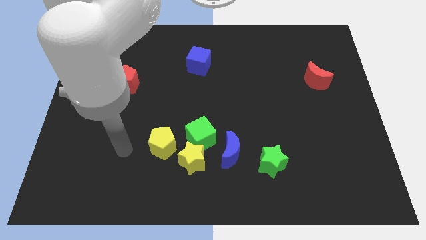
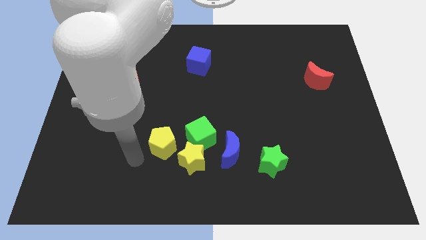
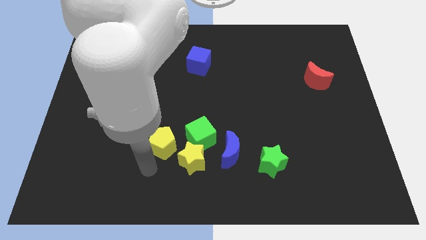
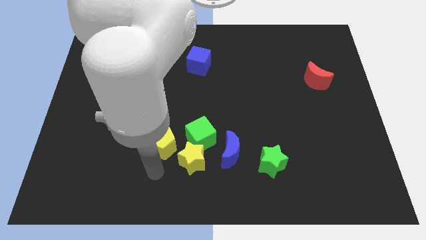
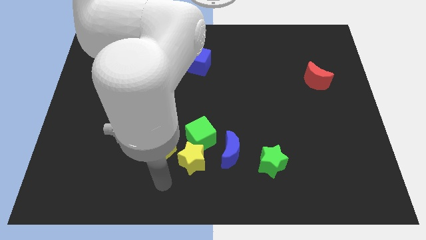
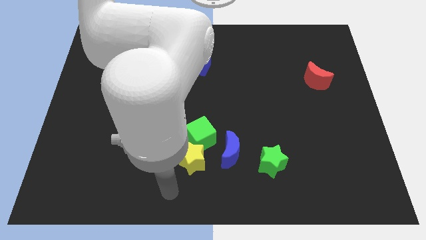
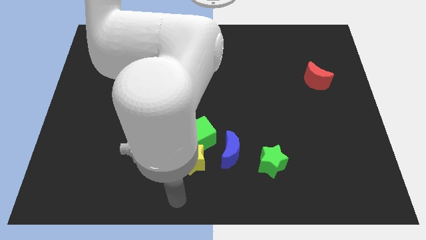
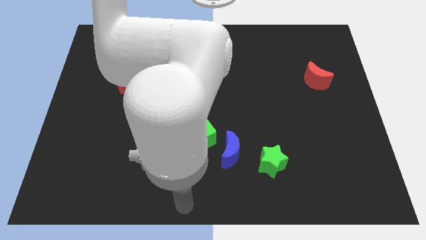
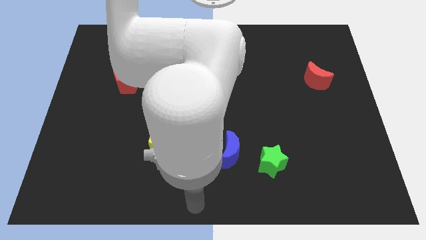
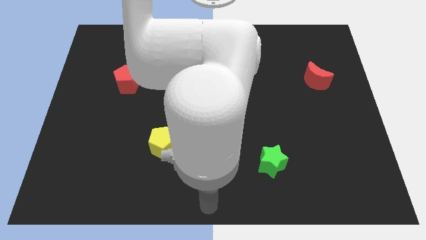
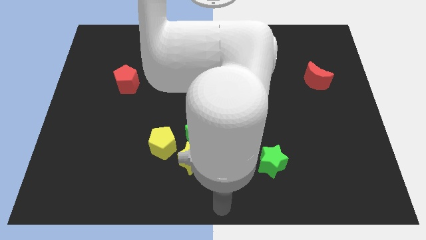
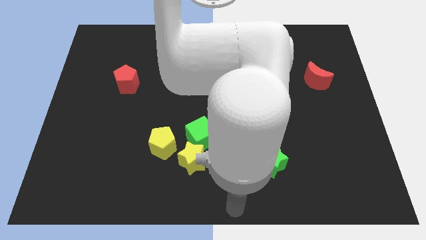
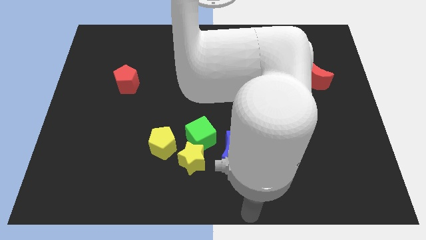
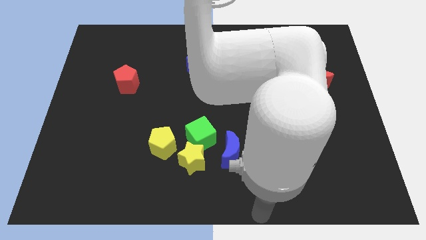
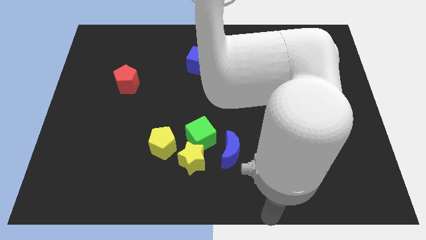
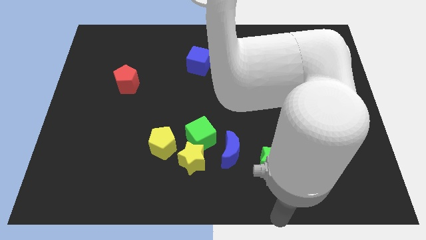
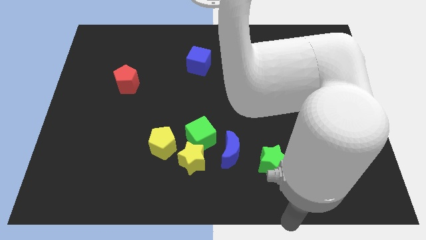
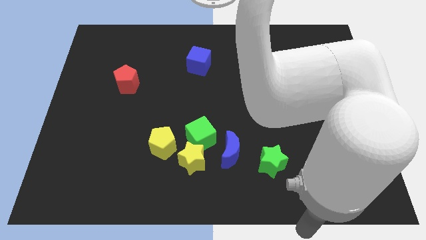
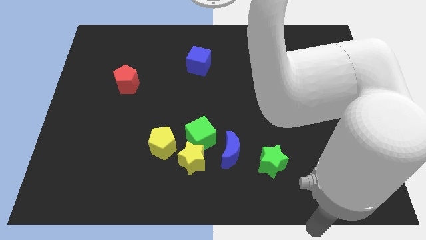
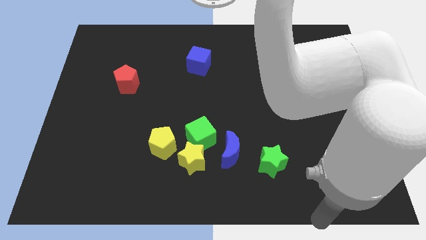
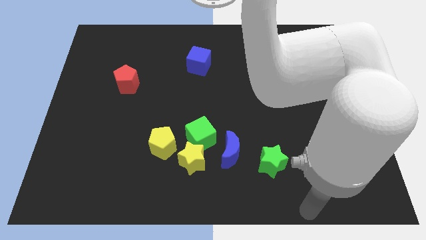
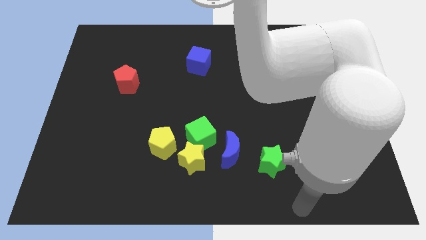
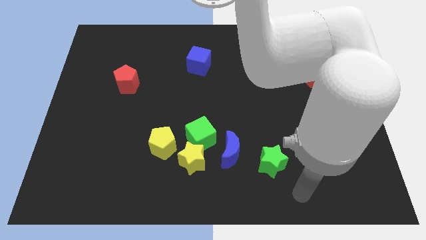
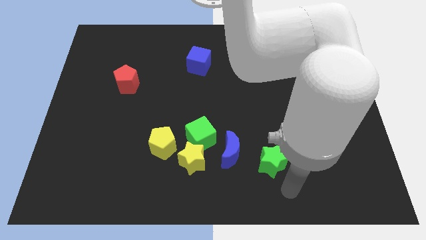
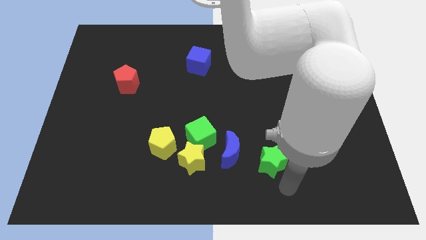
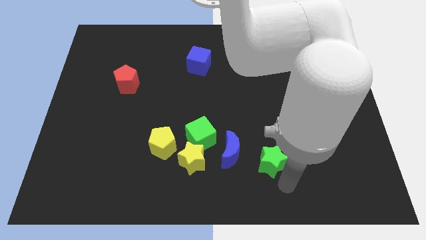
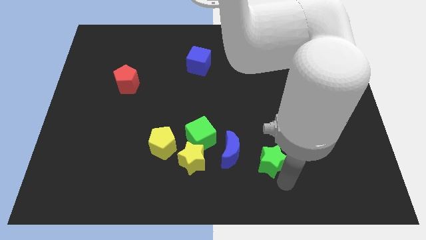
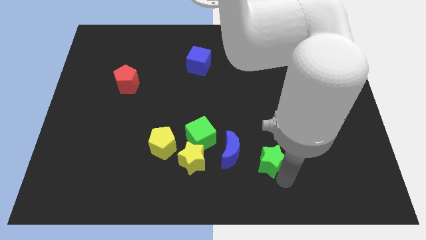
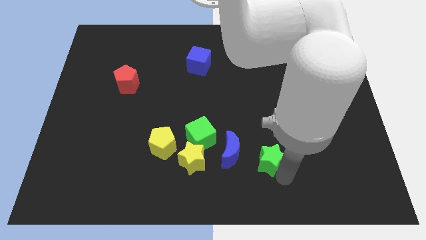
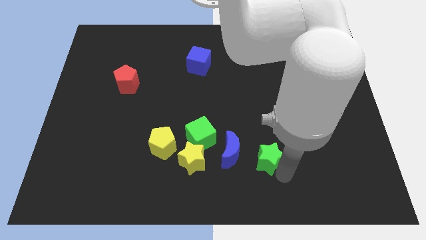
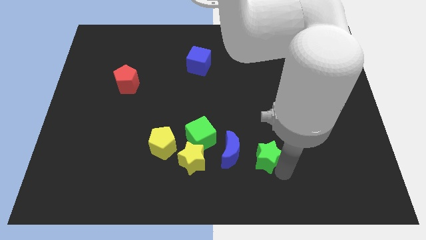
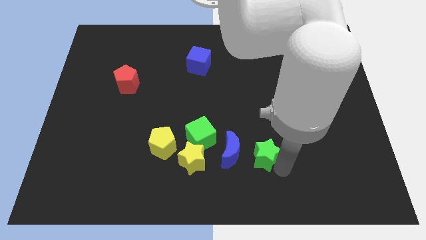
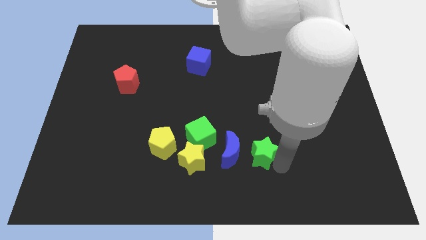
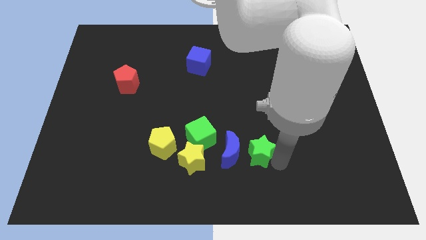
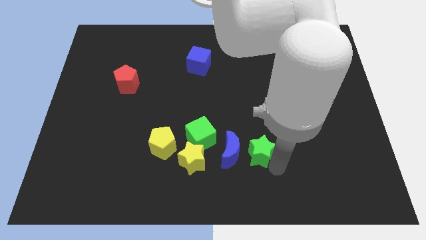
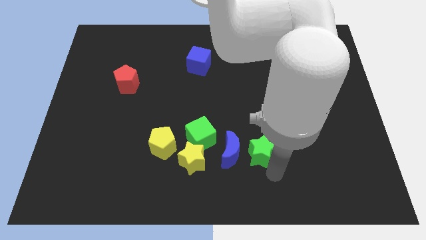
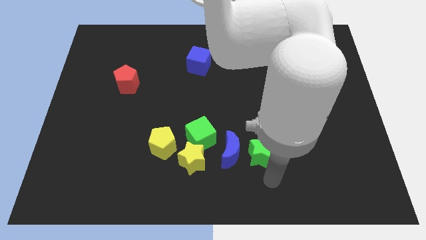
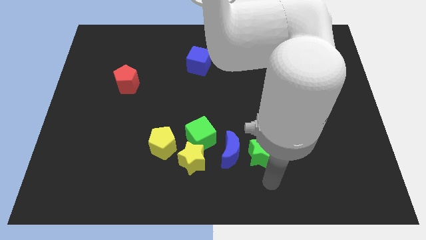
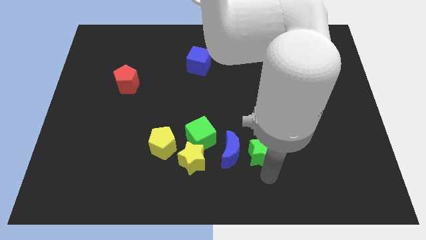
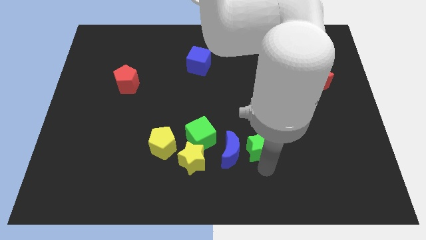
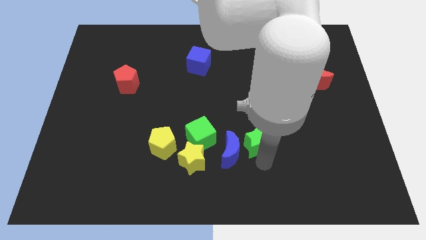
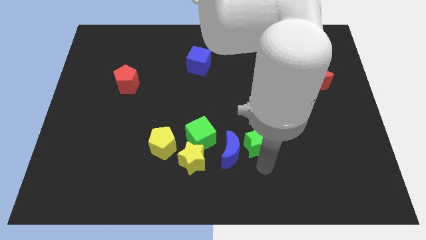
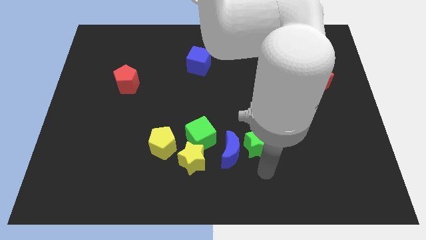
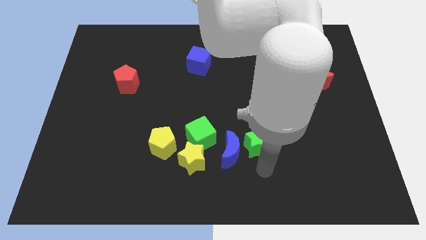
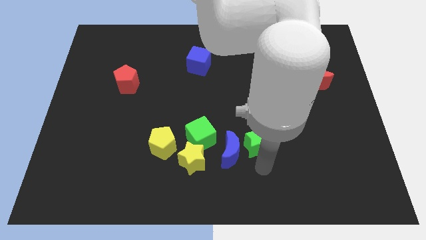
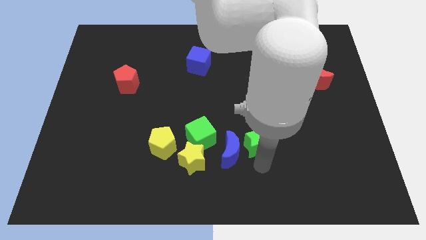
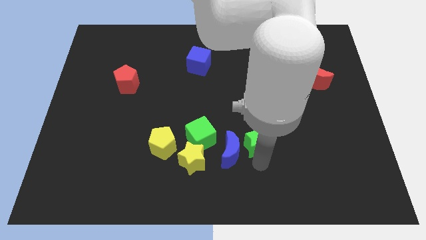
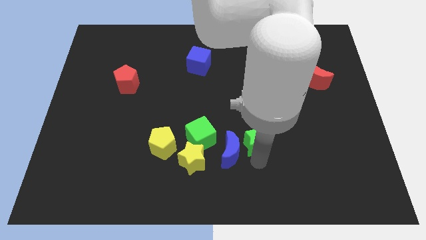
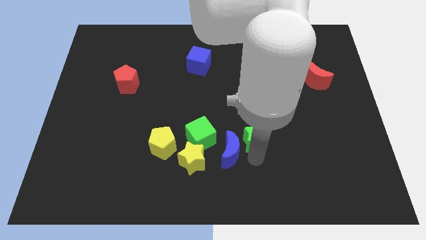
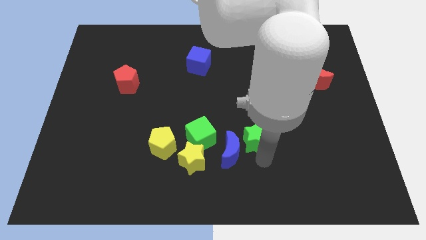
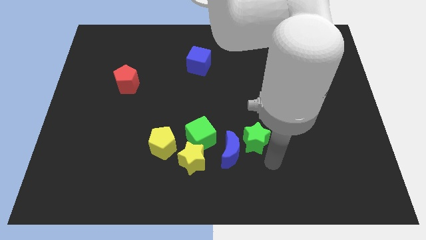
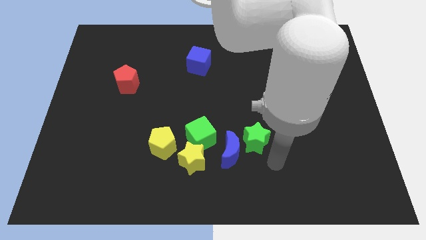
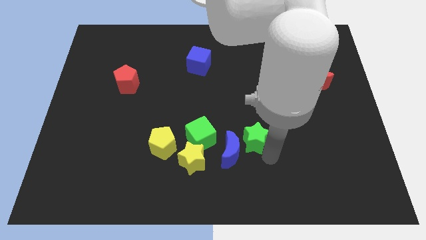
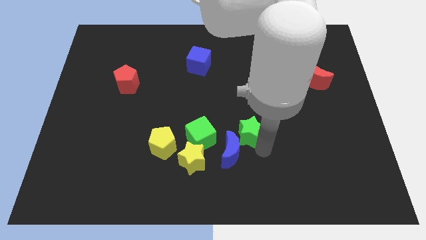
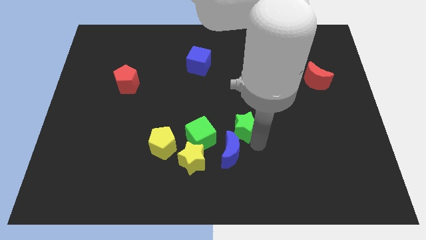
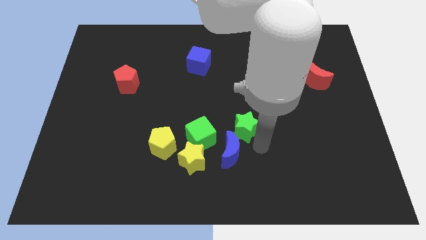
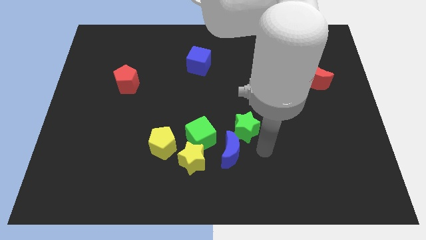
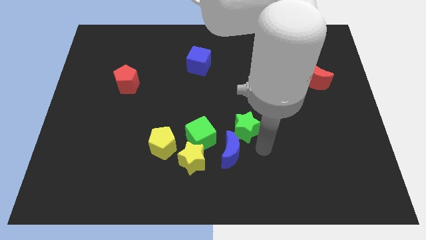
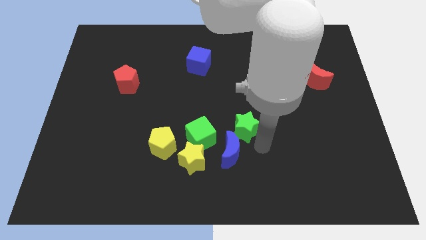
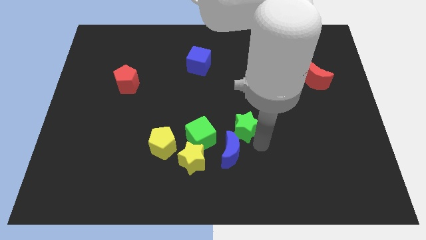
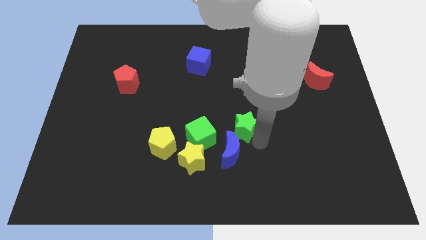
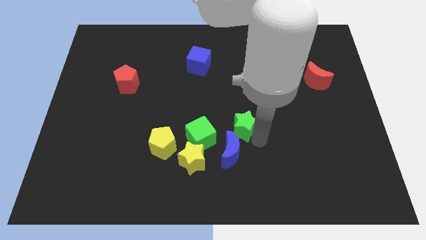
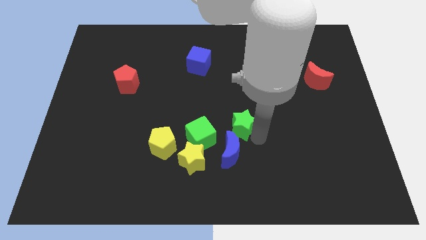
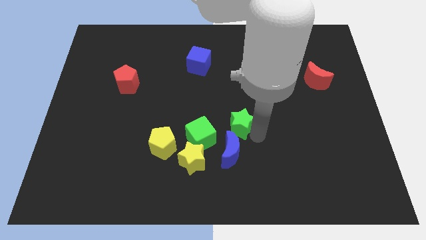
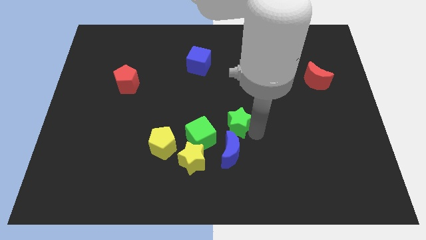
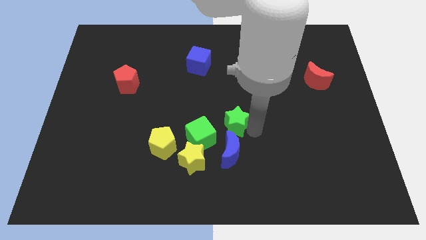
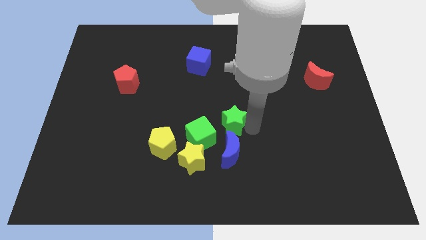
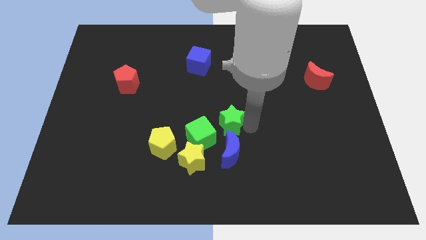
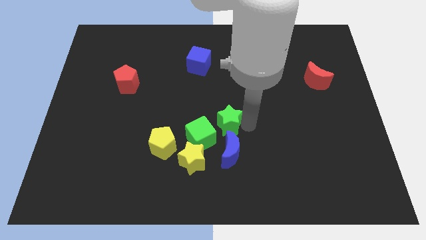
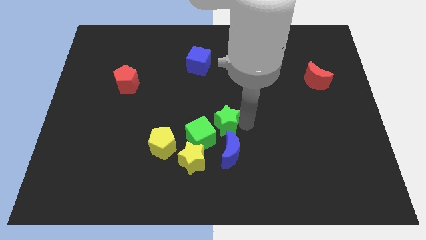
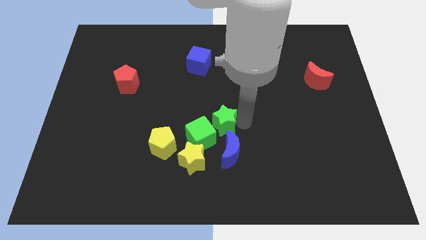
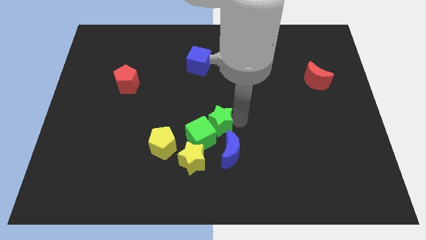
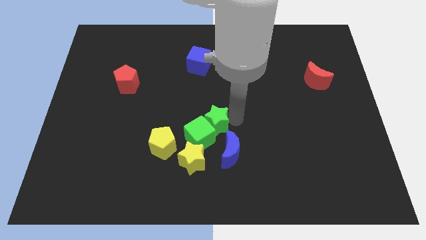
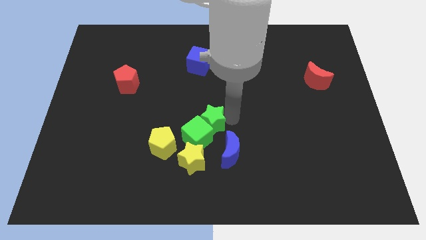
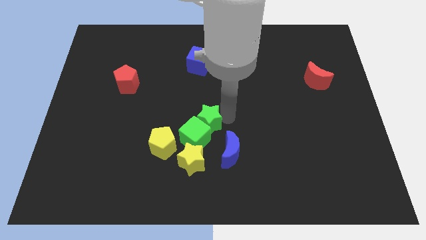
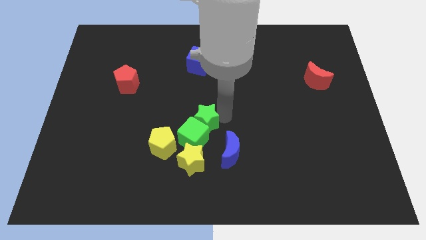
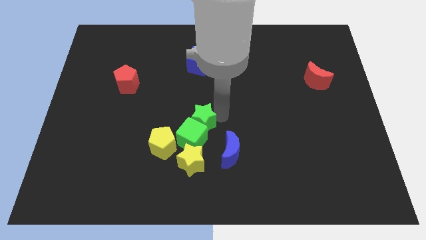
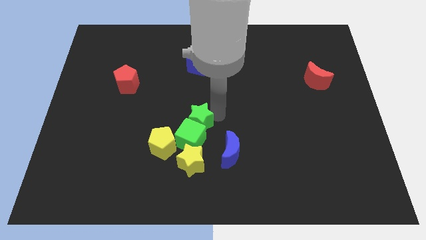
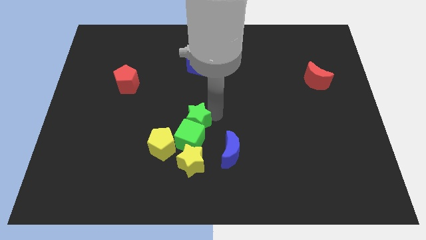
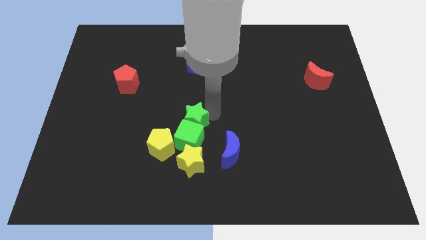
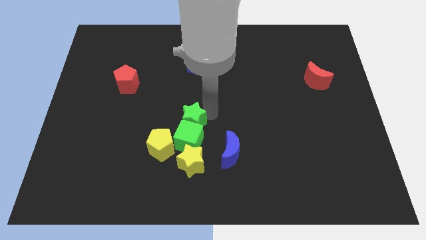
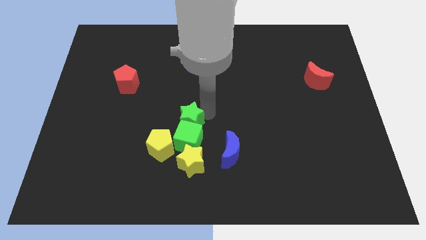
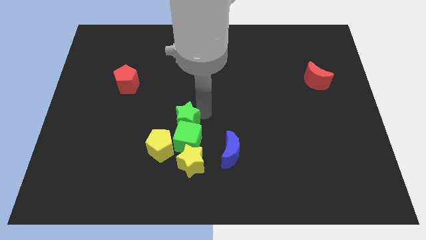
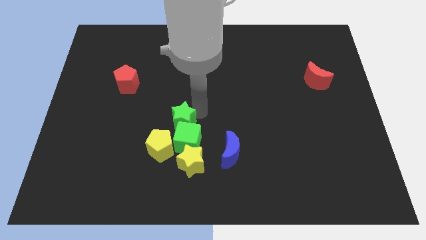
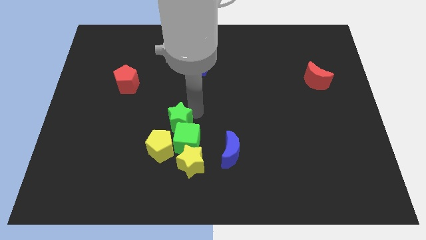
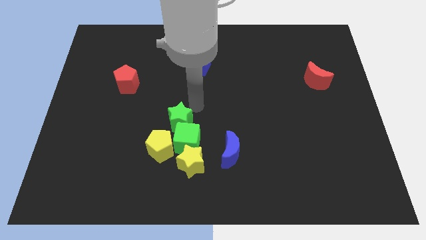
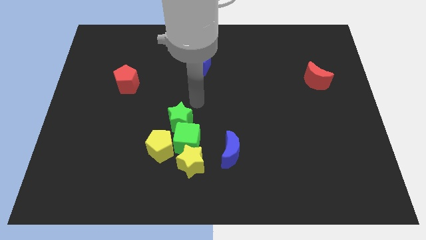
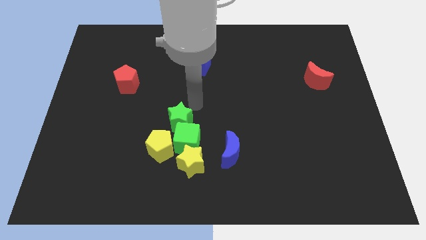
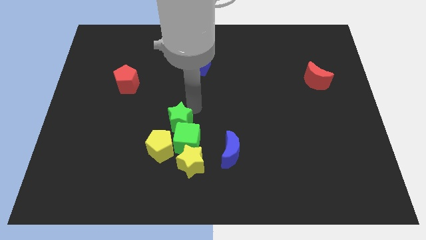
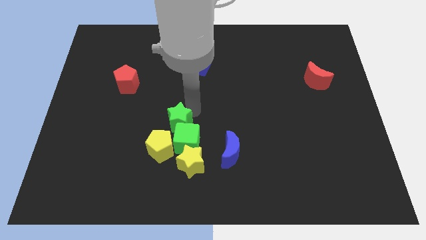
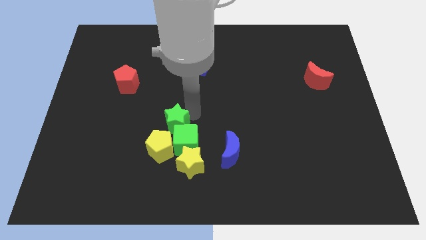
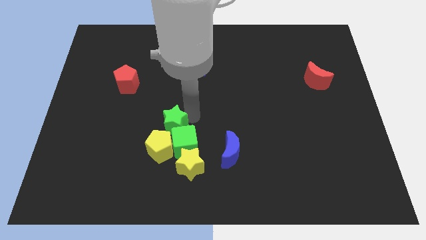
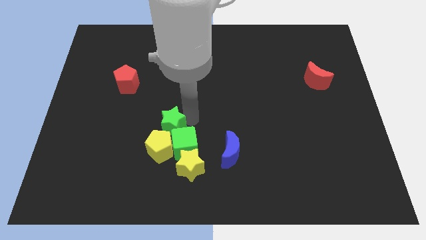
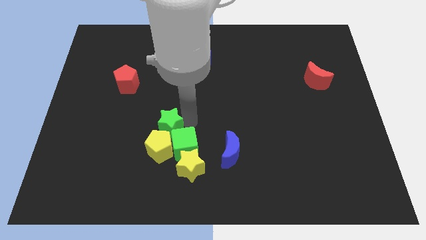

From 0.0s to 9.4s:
push the green star next to the yellow pentagon
